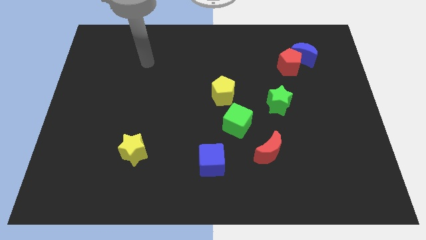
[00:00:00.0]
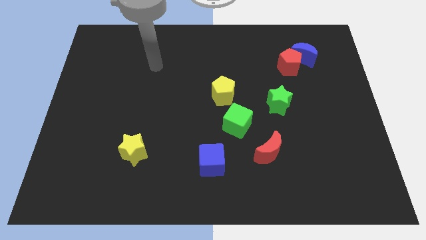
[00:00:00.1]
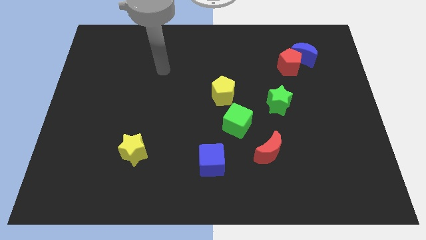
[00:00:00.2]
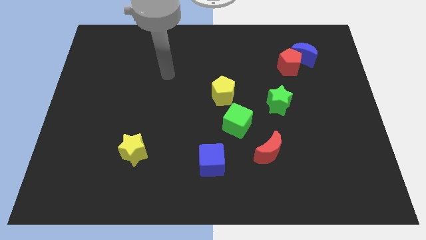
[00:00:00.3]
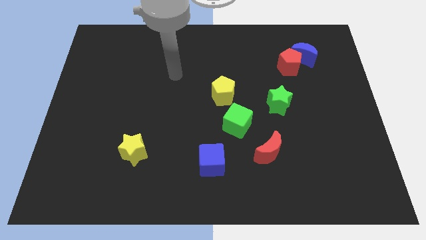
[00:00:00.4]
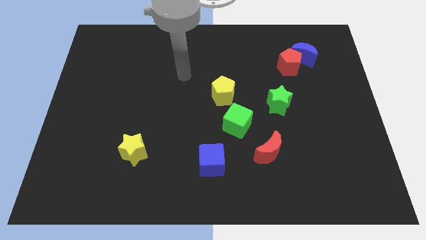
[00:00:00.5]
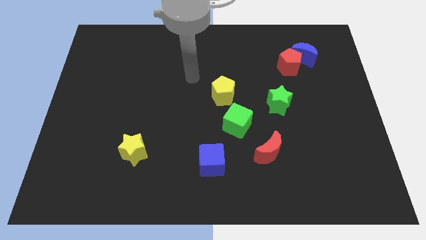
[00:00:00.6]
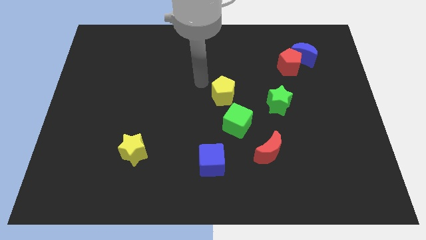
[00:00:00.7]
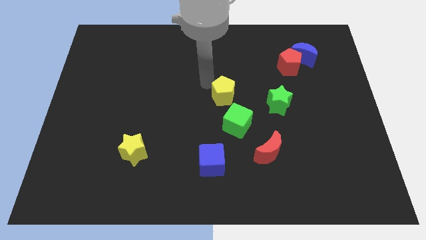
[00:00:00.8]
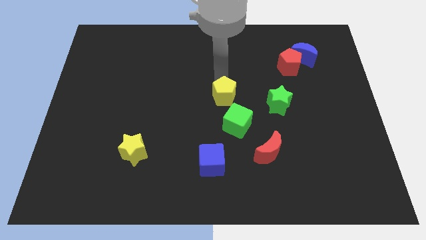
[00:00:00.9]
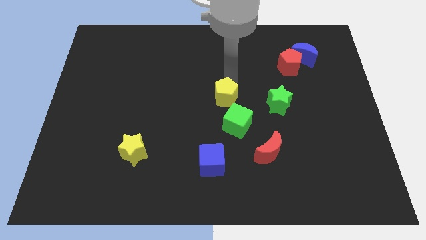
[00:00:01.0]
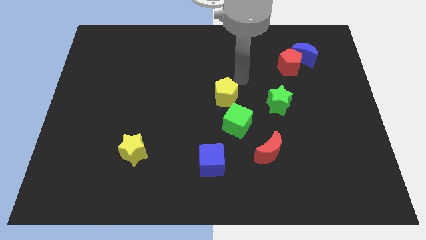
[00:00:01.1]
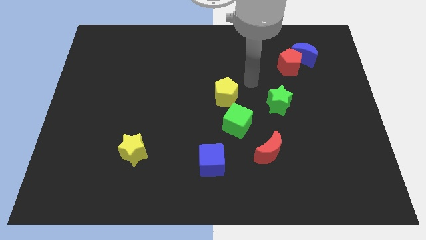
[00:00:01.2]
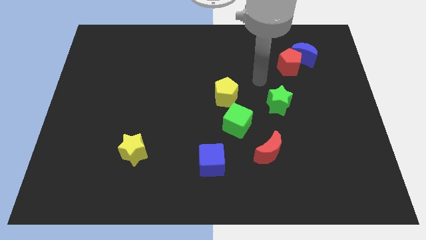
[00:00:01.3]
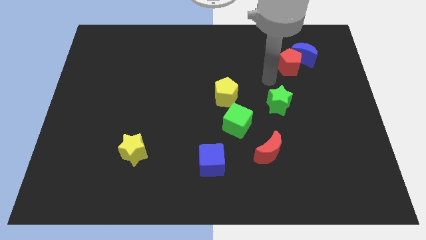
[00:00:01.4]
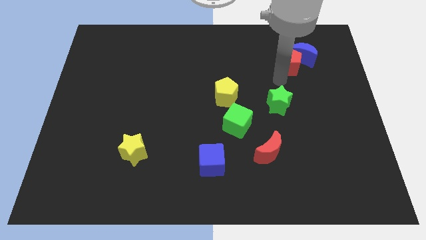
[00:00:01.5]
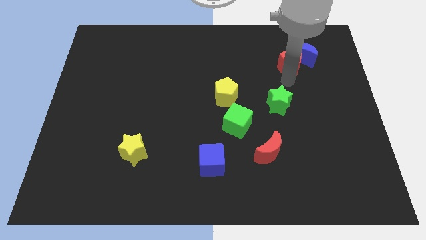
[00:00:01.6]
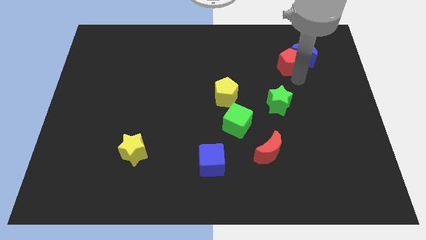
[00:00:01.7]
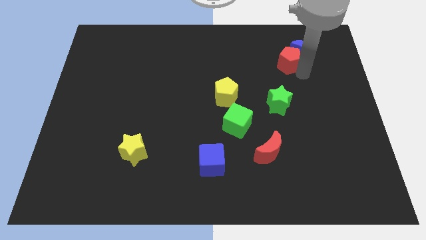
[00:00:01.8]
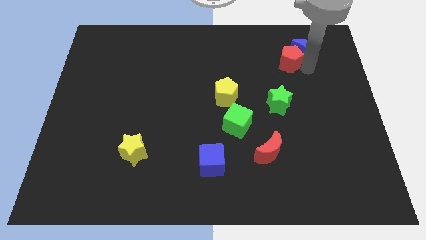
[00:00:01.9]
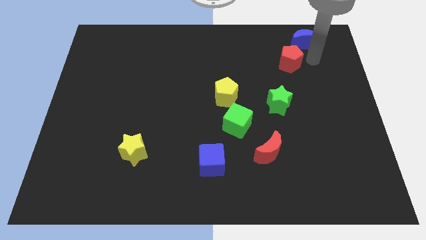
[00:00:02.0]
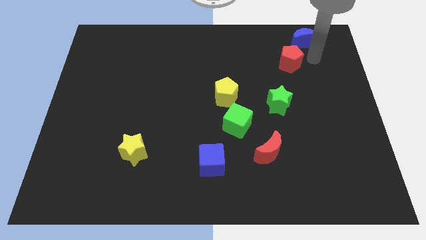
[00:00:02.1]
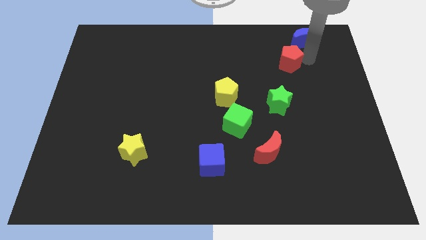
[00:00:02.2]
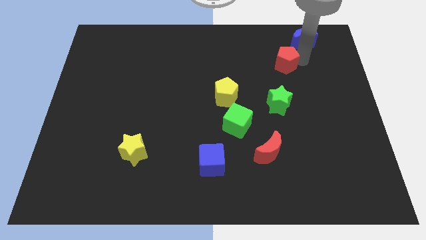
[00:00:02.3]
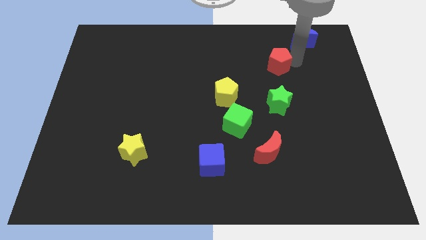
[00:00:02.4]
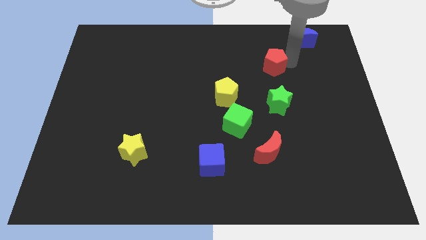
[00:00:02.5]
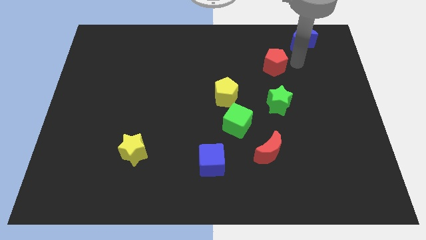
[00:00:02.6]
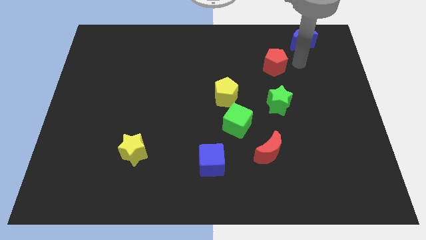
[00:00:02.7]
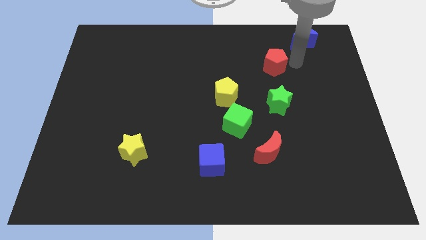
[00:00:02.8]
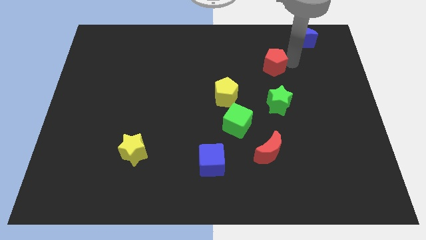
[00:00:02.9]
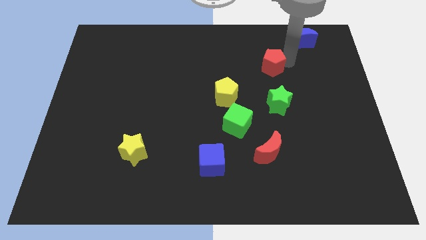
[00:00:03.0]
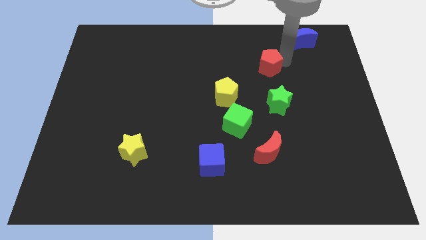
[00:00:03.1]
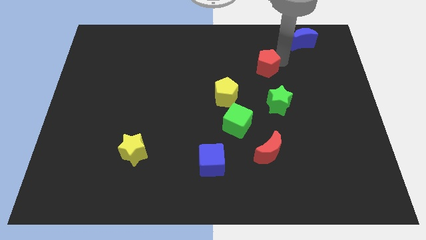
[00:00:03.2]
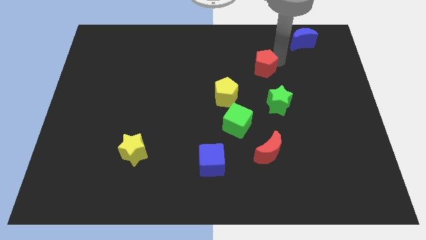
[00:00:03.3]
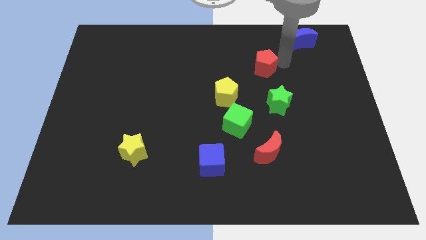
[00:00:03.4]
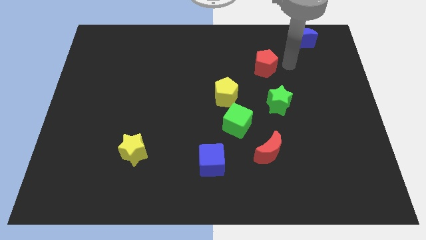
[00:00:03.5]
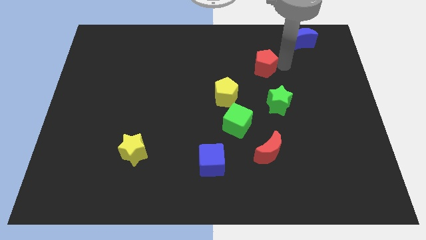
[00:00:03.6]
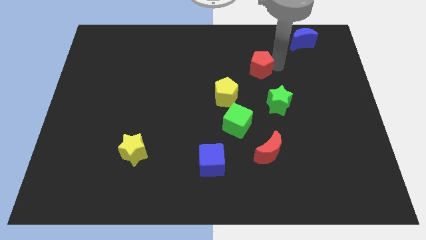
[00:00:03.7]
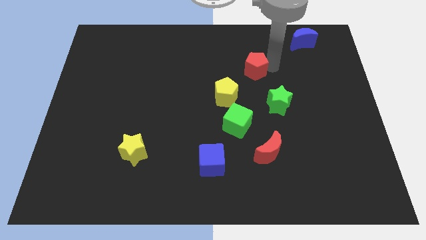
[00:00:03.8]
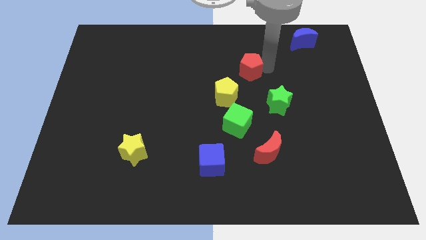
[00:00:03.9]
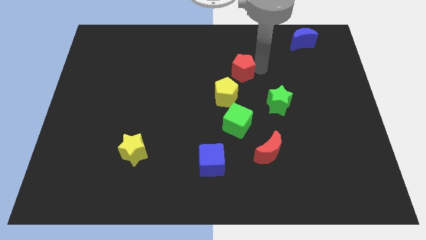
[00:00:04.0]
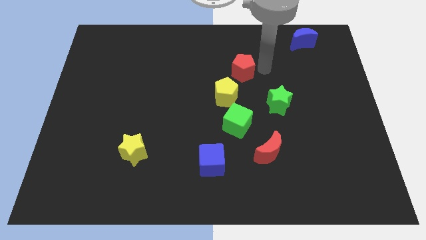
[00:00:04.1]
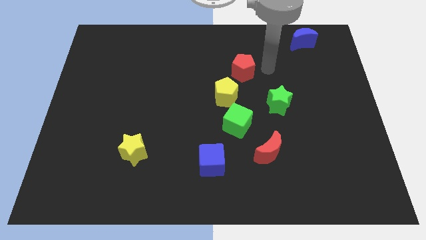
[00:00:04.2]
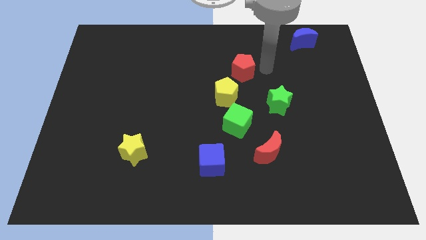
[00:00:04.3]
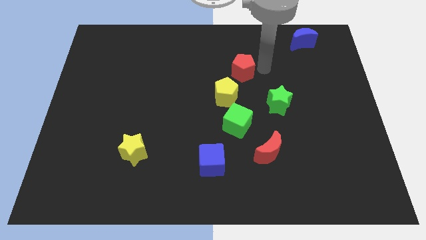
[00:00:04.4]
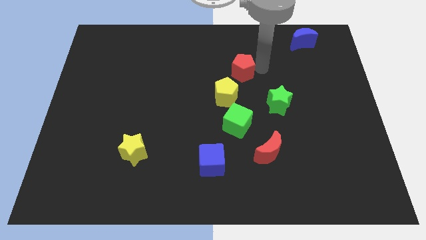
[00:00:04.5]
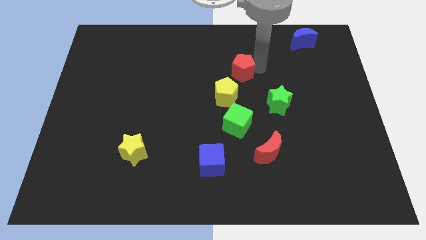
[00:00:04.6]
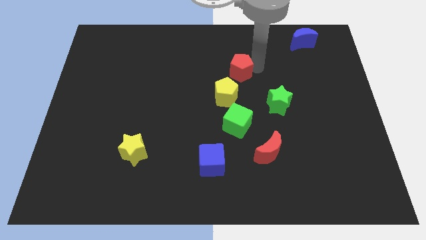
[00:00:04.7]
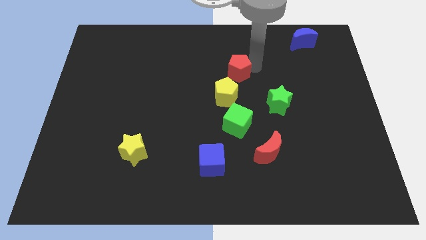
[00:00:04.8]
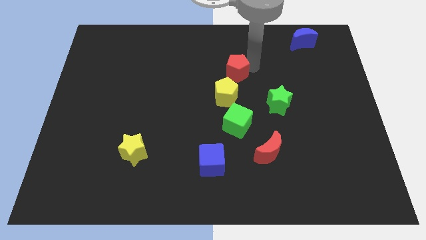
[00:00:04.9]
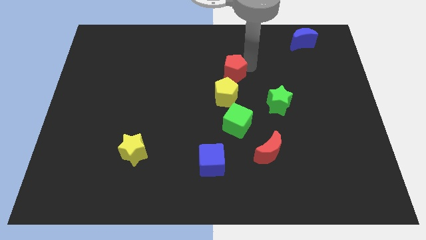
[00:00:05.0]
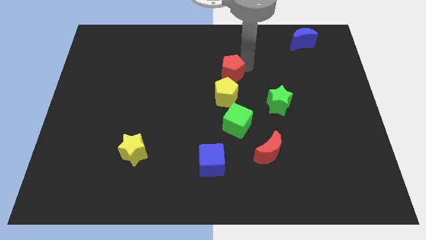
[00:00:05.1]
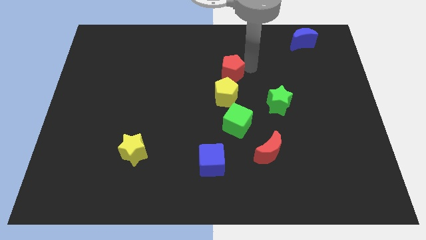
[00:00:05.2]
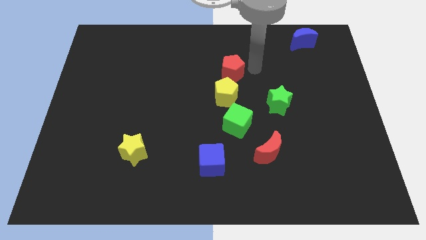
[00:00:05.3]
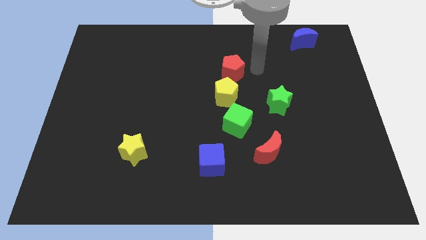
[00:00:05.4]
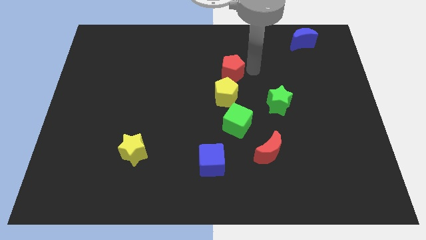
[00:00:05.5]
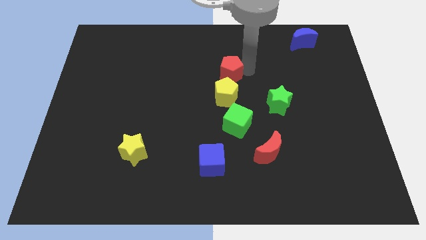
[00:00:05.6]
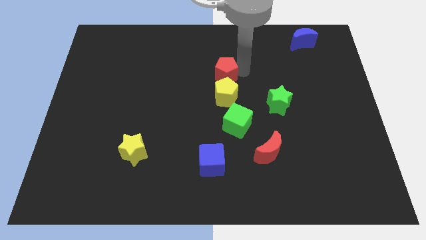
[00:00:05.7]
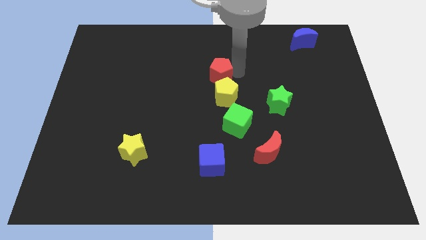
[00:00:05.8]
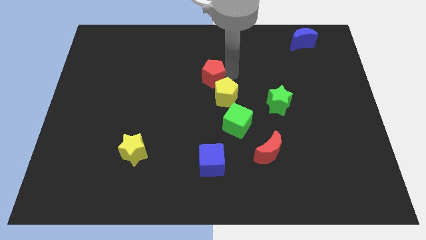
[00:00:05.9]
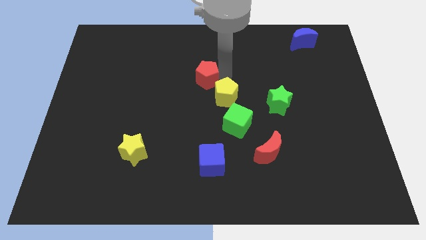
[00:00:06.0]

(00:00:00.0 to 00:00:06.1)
move the red pentagon left

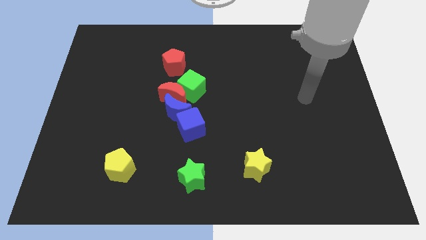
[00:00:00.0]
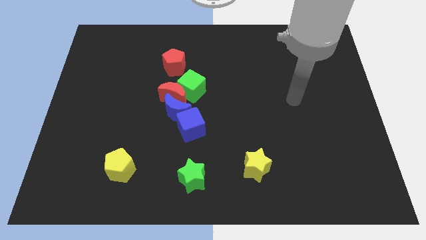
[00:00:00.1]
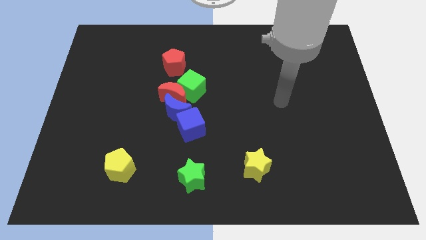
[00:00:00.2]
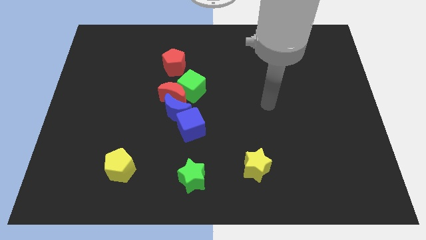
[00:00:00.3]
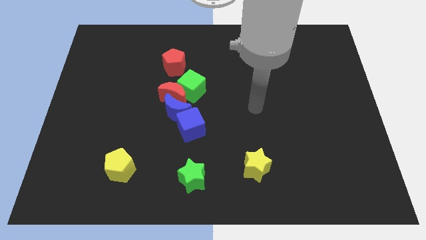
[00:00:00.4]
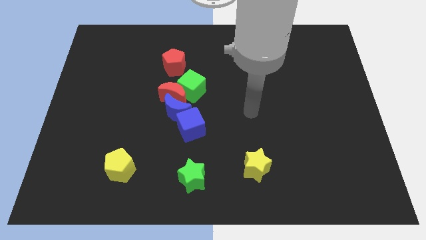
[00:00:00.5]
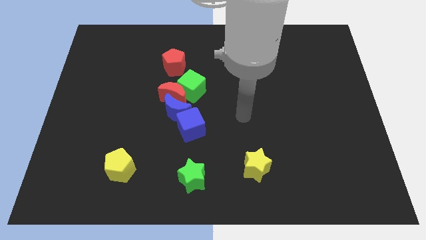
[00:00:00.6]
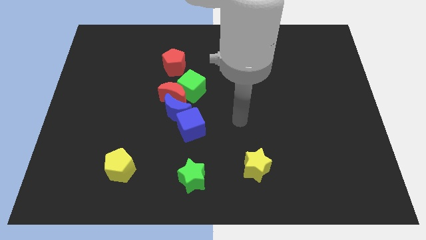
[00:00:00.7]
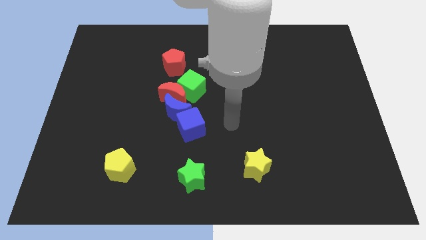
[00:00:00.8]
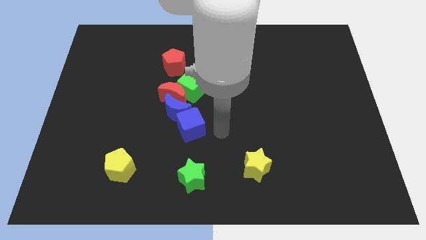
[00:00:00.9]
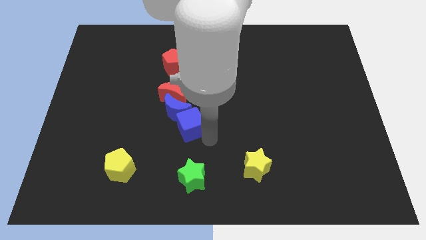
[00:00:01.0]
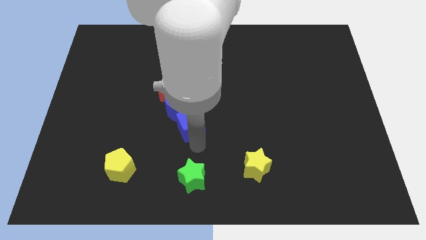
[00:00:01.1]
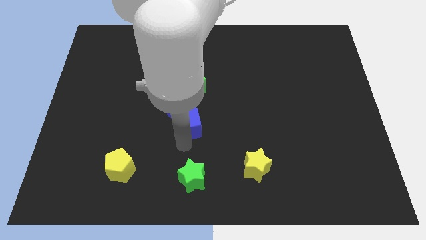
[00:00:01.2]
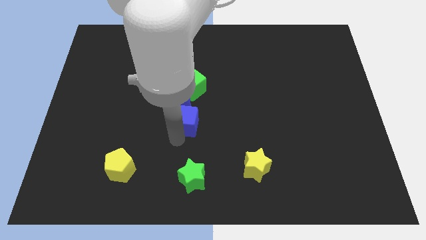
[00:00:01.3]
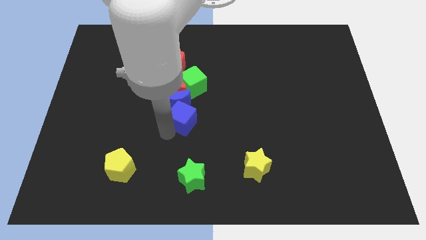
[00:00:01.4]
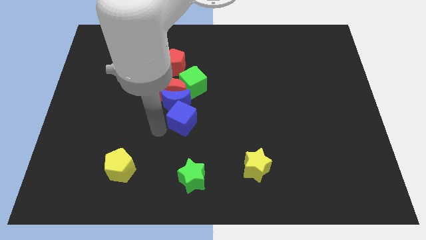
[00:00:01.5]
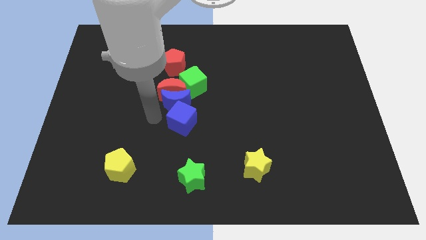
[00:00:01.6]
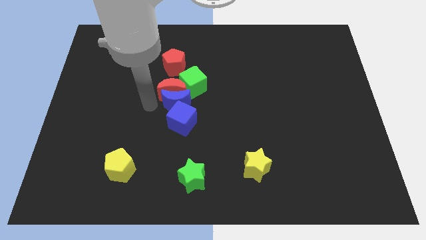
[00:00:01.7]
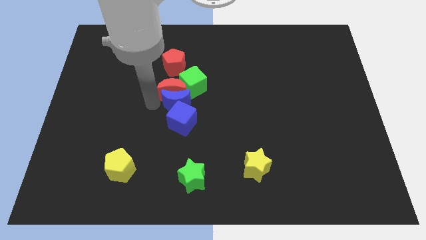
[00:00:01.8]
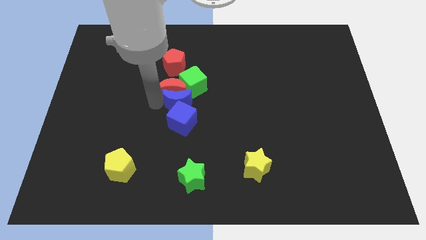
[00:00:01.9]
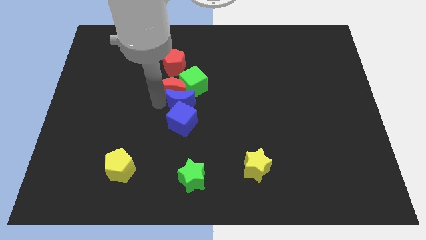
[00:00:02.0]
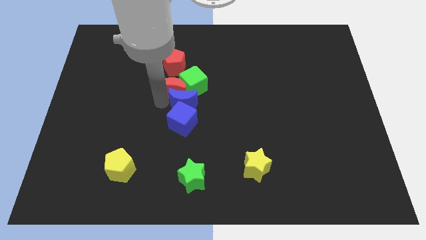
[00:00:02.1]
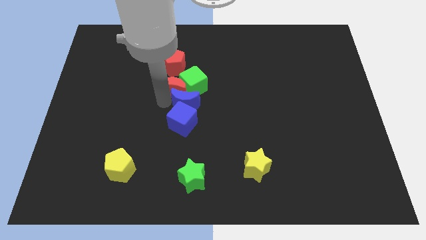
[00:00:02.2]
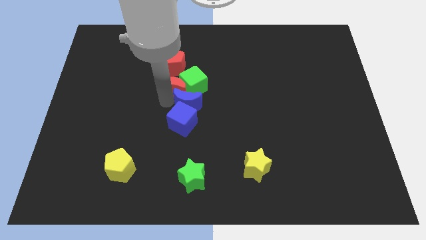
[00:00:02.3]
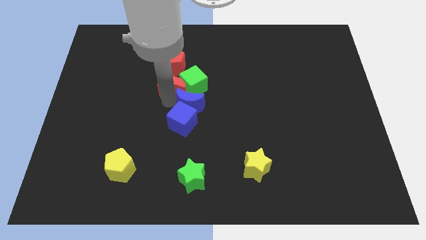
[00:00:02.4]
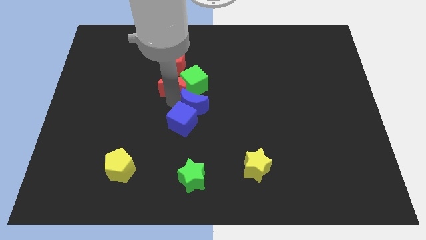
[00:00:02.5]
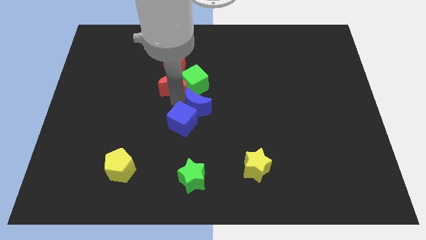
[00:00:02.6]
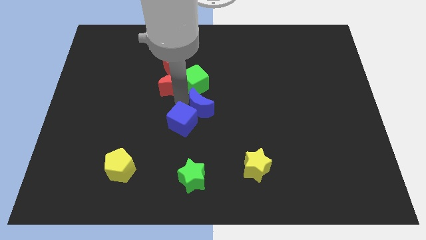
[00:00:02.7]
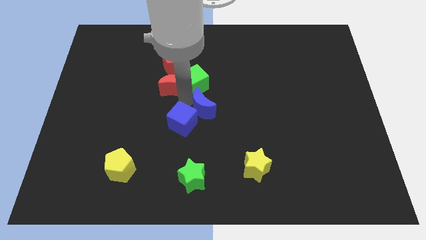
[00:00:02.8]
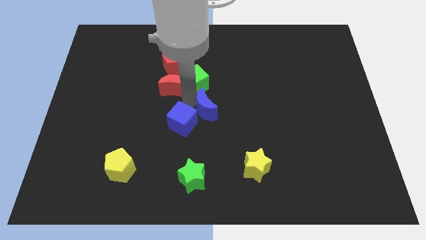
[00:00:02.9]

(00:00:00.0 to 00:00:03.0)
push the blue moon slightly to the right
